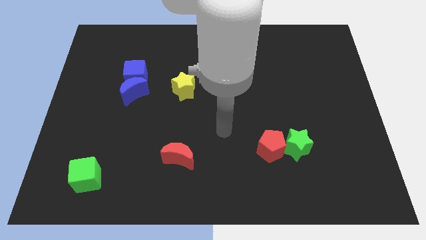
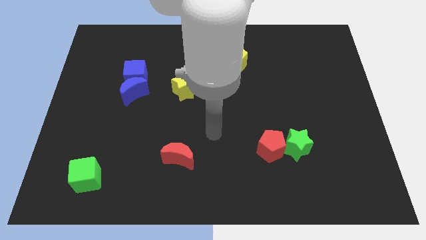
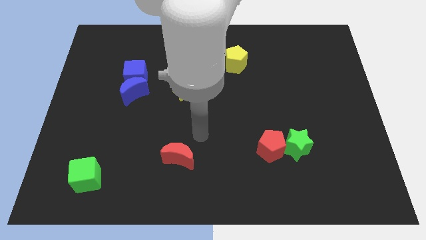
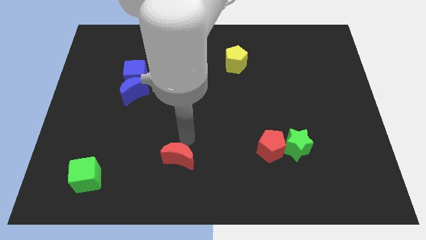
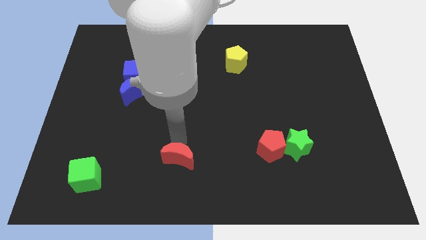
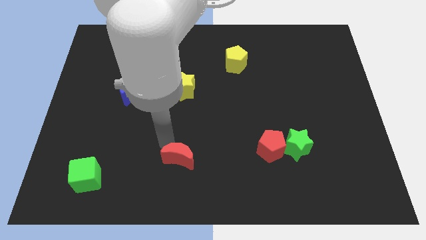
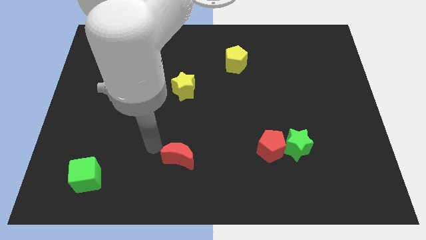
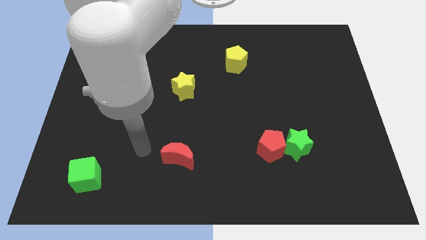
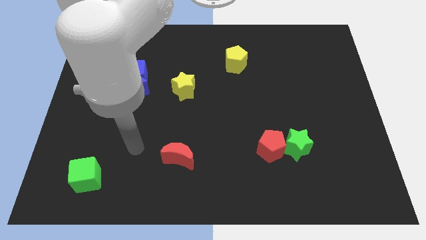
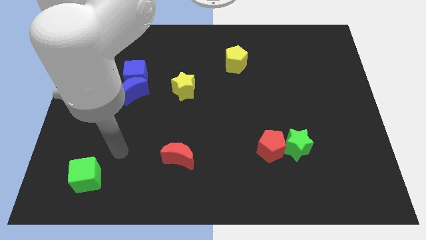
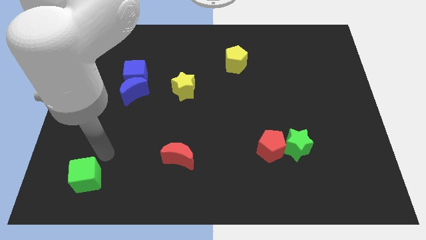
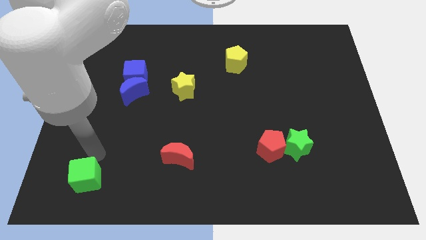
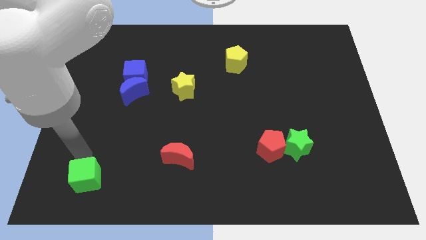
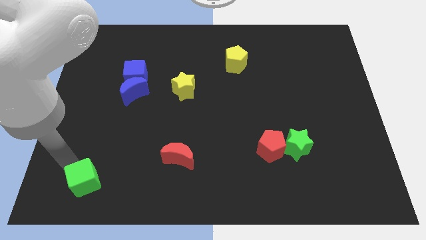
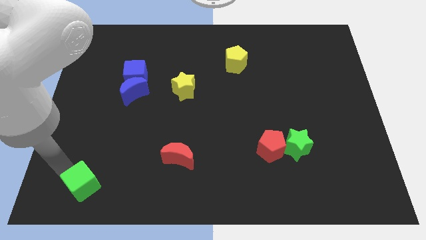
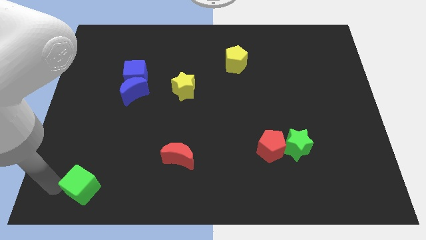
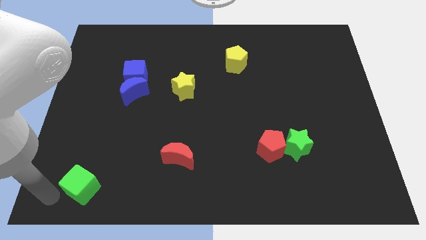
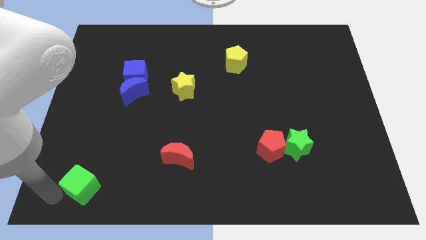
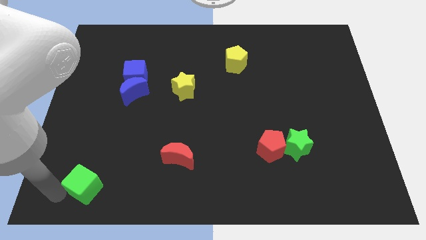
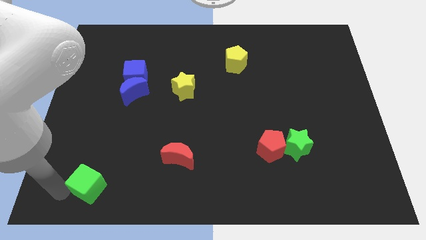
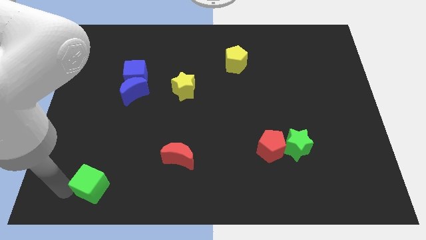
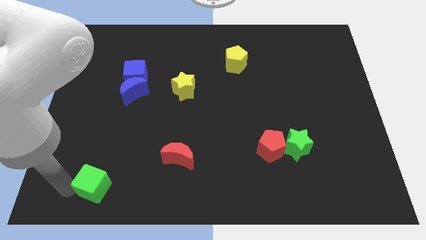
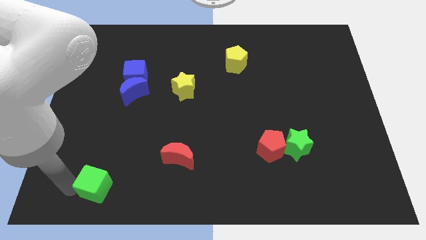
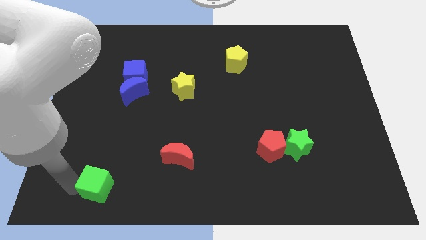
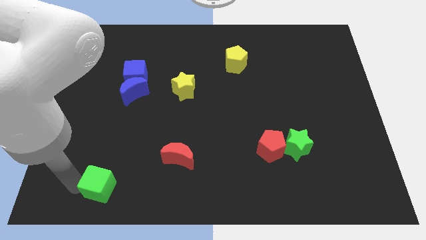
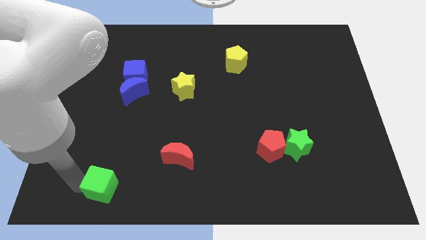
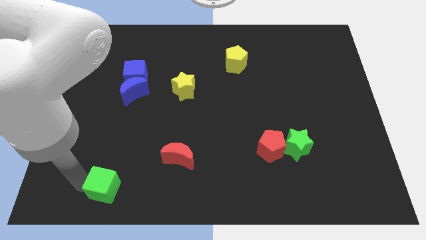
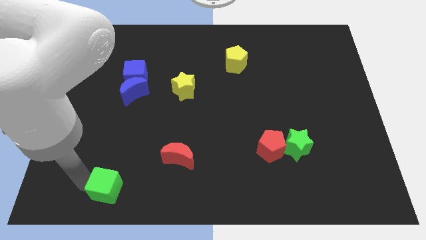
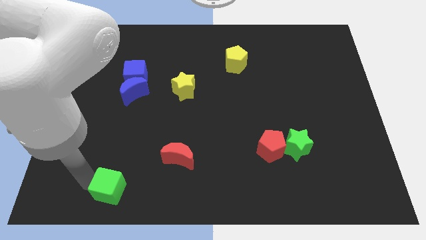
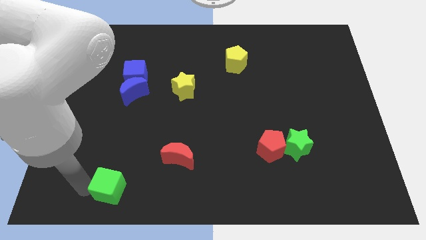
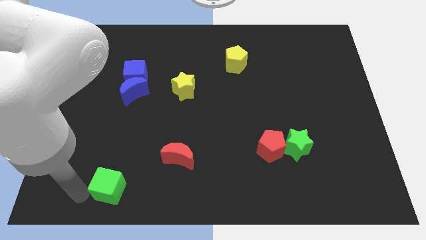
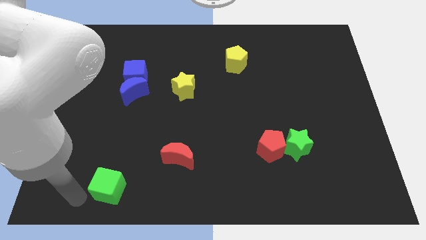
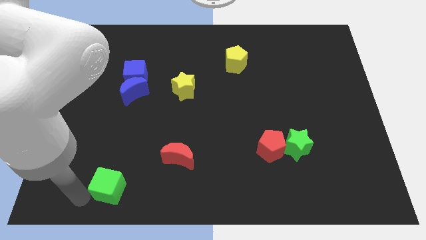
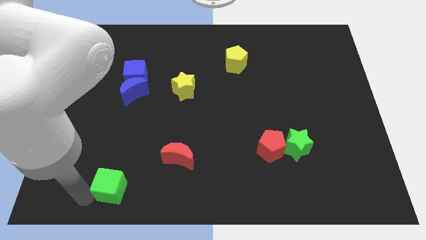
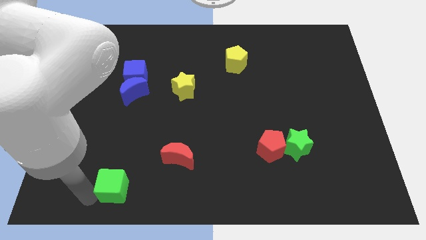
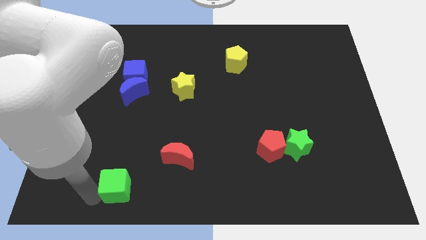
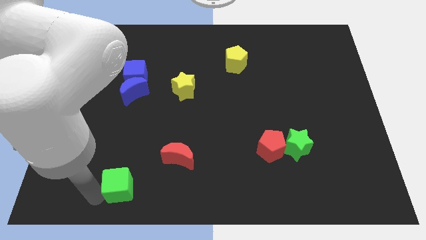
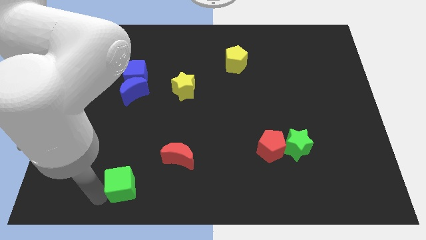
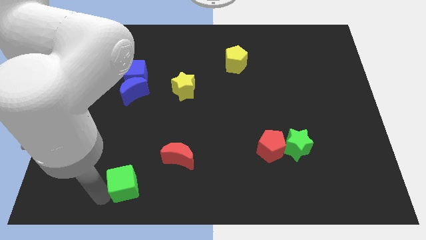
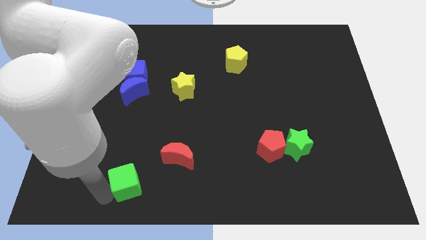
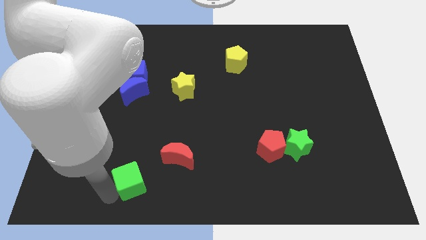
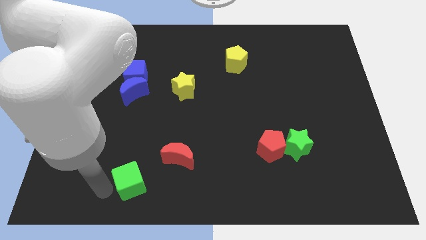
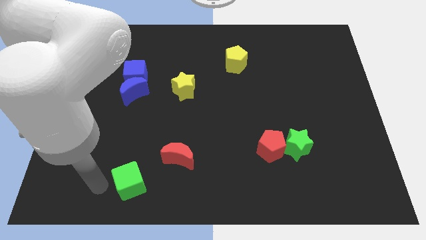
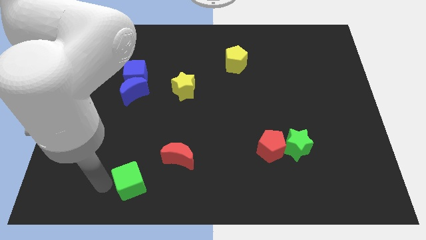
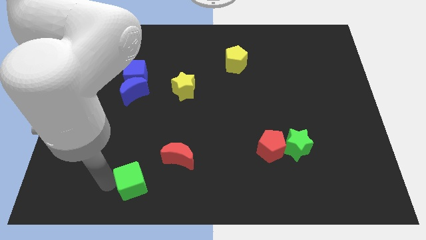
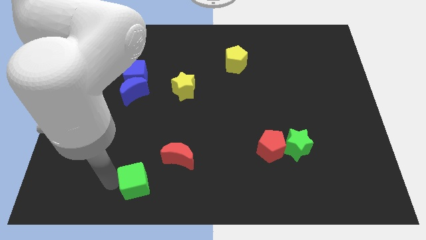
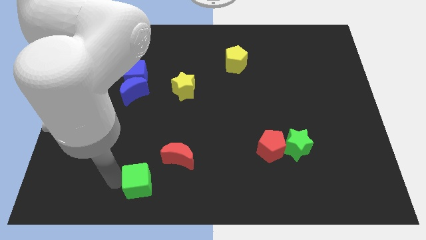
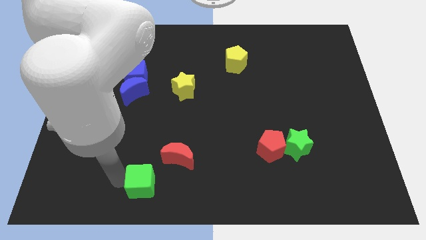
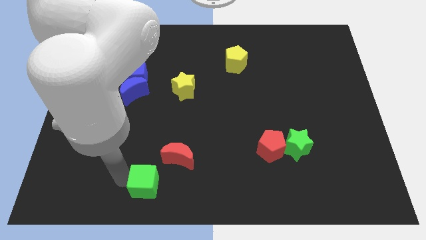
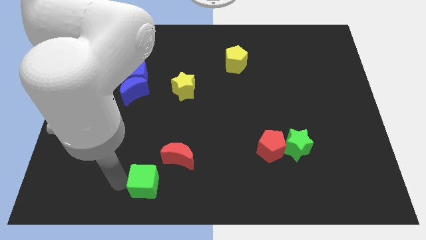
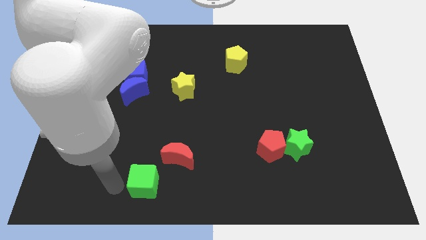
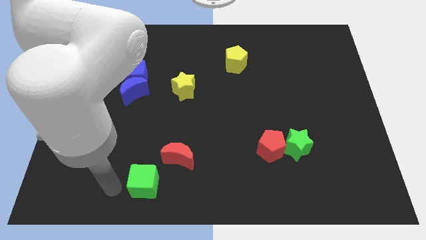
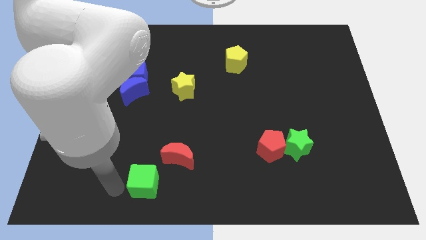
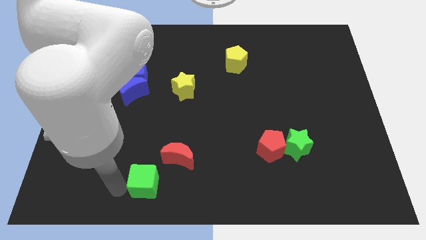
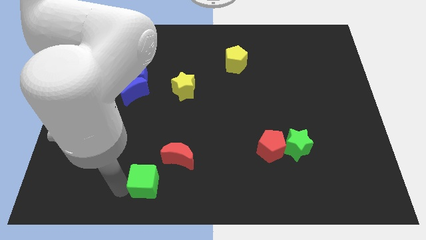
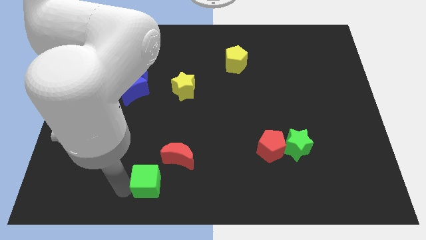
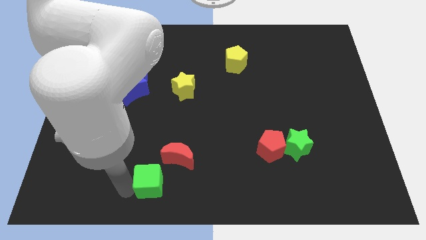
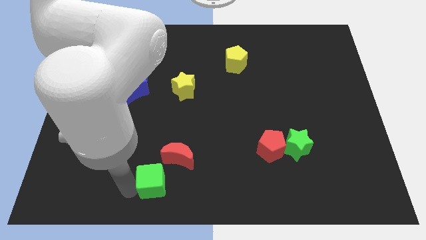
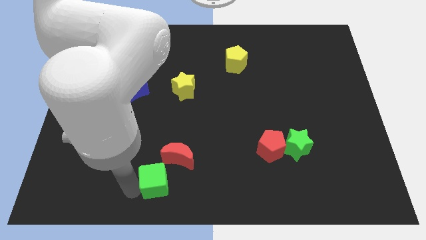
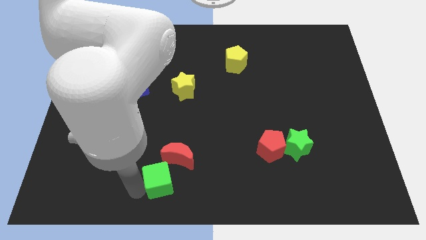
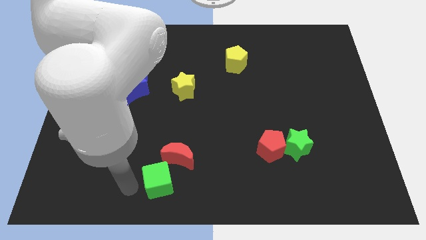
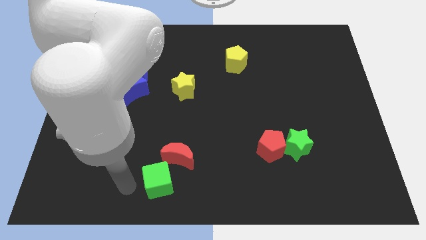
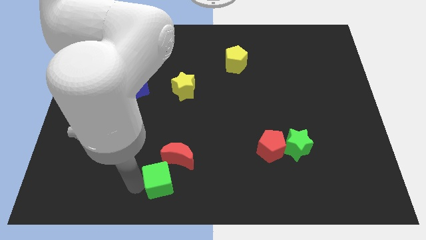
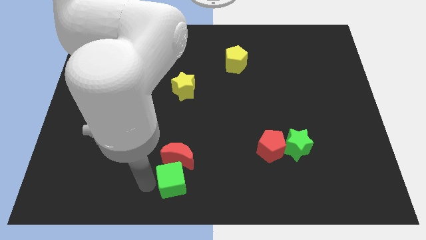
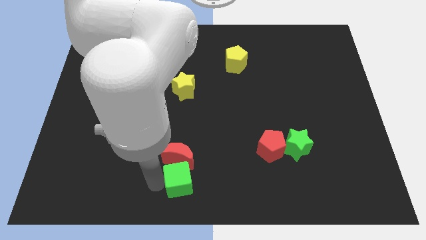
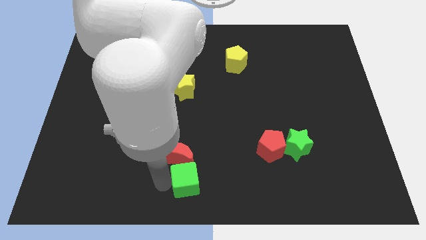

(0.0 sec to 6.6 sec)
slide the green cube to the right

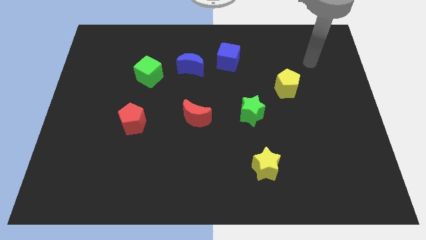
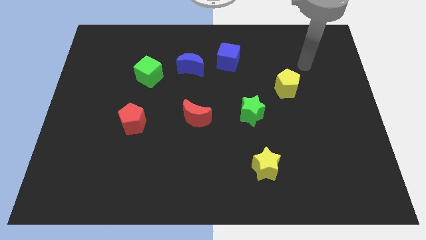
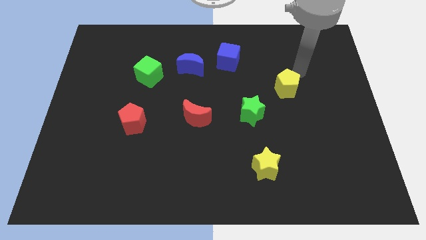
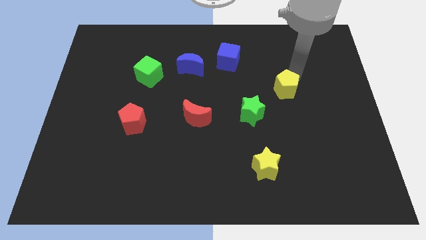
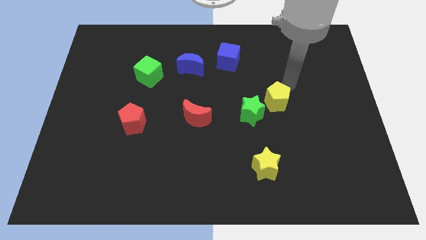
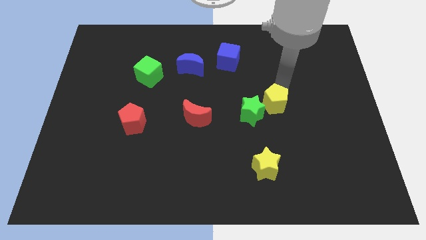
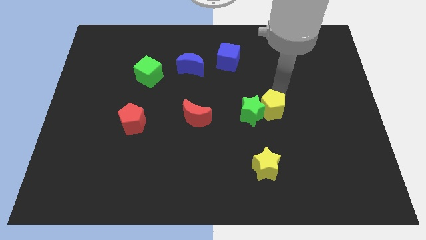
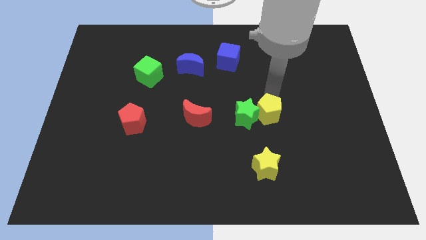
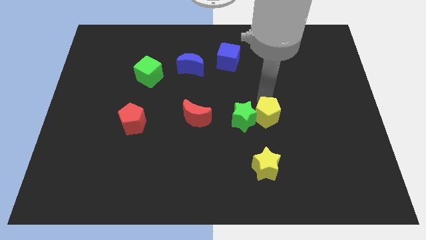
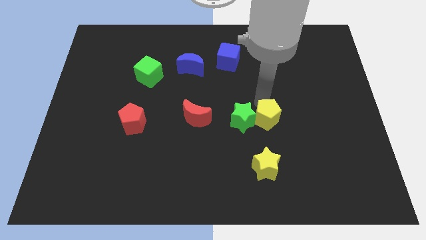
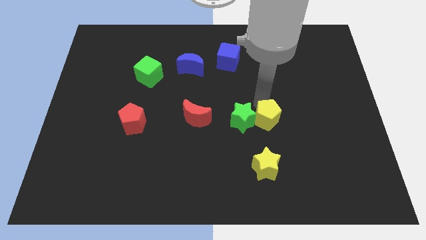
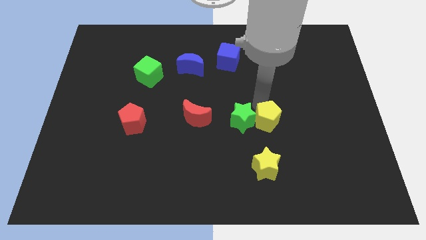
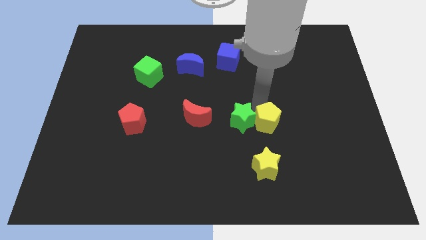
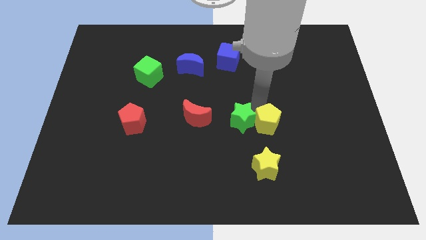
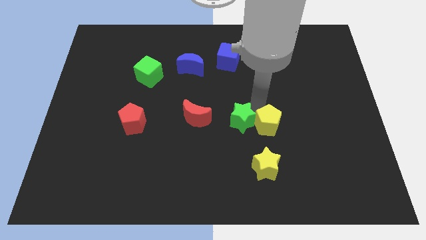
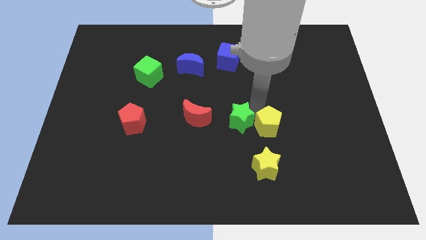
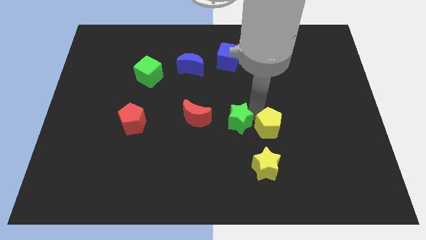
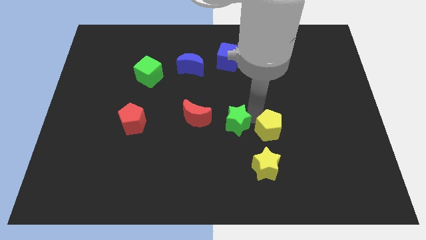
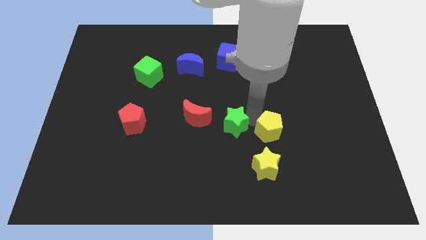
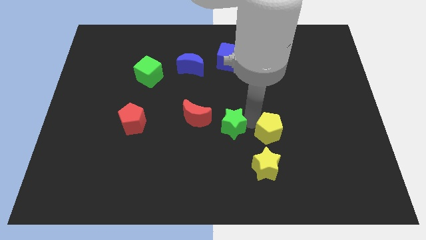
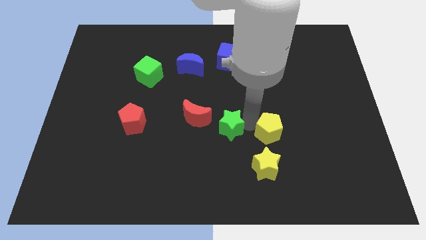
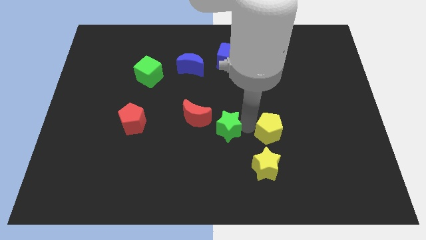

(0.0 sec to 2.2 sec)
slightly push the green star downwards and then left
